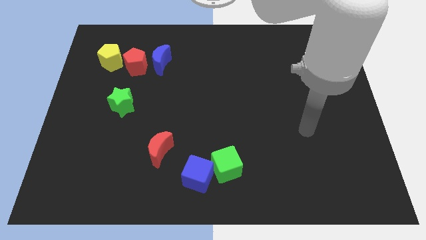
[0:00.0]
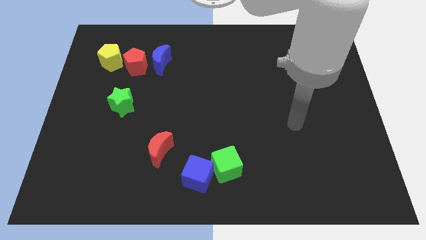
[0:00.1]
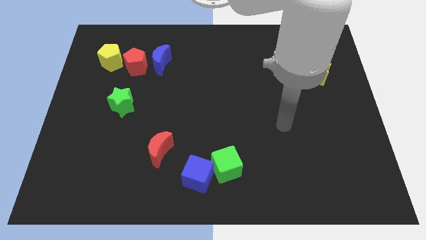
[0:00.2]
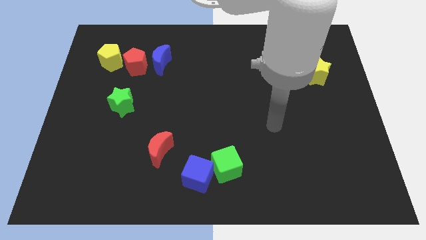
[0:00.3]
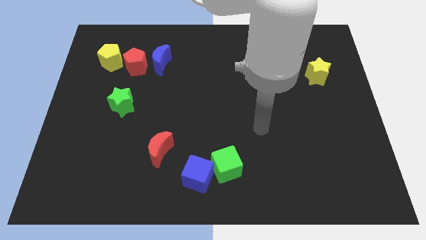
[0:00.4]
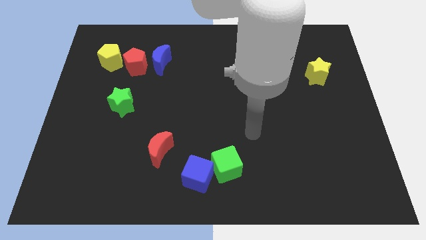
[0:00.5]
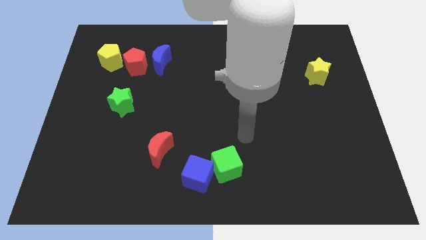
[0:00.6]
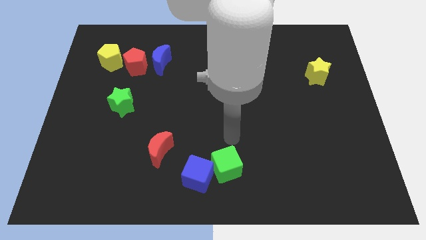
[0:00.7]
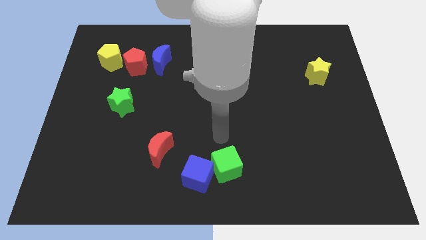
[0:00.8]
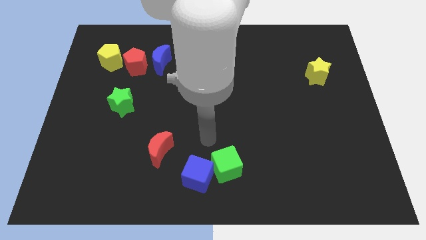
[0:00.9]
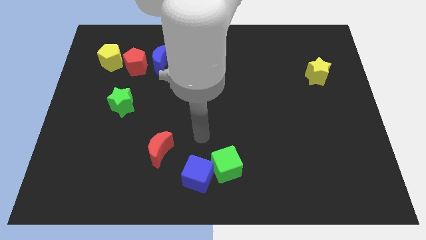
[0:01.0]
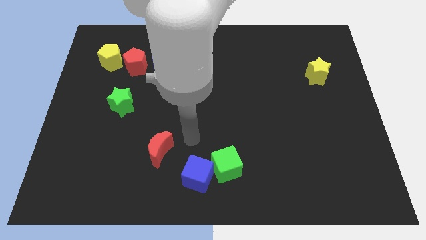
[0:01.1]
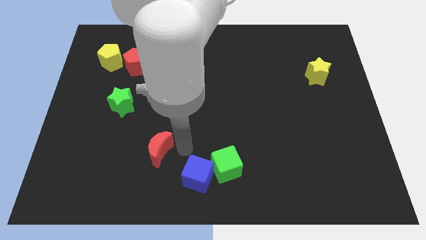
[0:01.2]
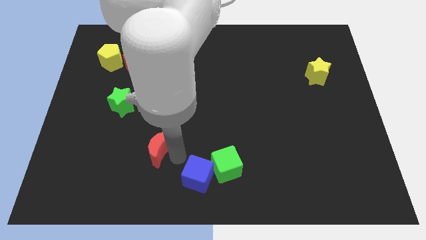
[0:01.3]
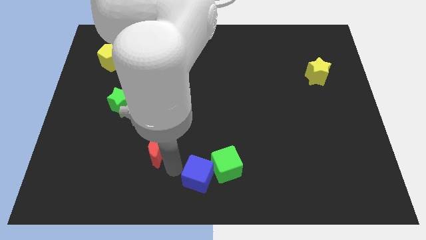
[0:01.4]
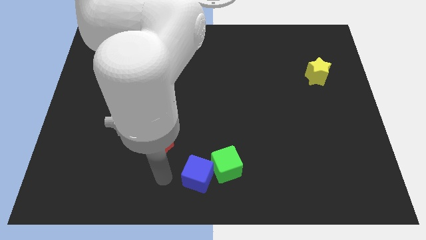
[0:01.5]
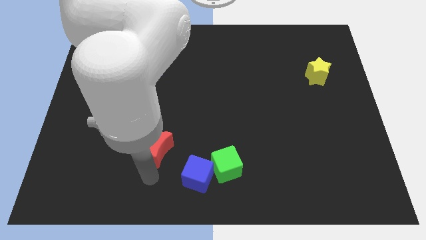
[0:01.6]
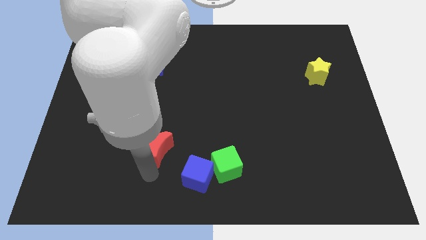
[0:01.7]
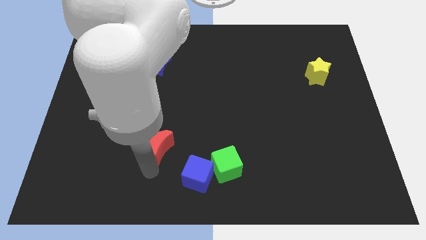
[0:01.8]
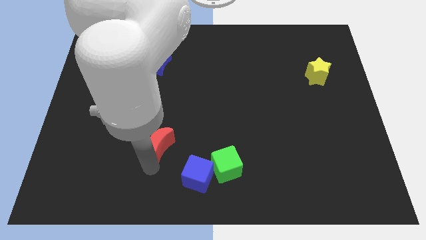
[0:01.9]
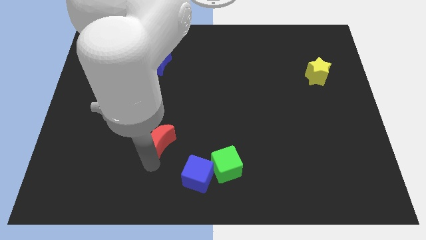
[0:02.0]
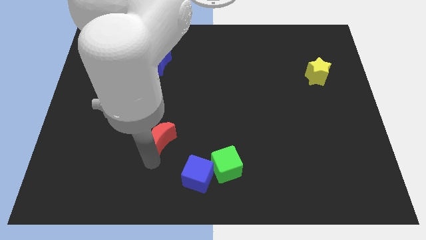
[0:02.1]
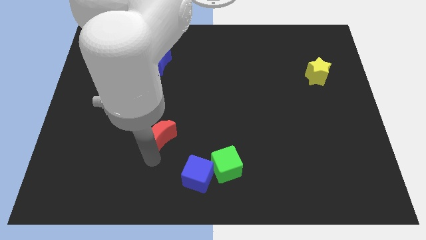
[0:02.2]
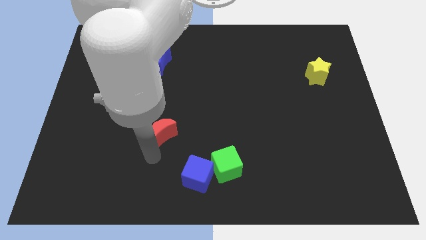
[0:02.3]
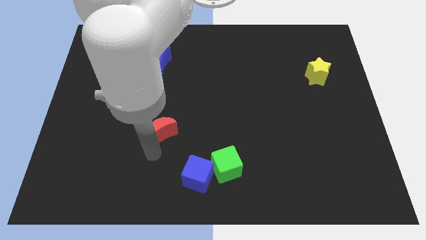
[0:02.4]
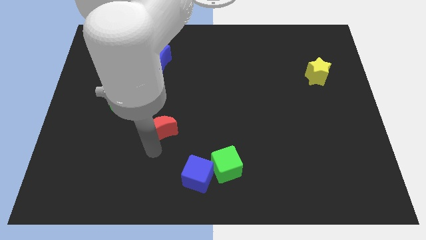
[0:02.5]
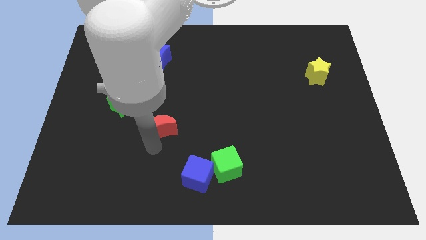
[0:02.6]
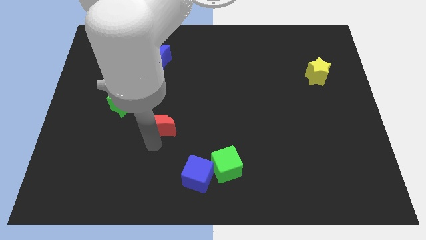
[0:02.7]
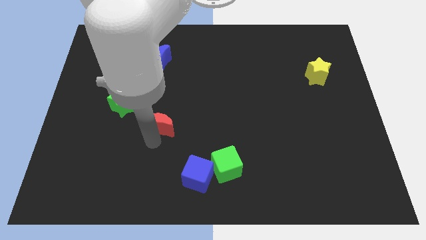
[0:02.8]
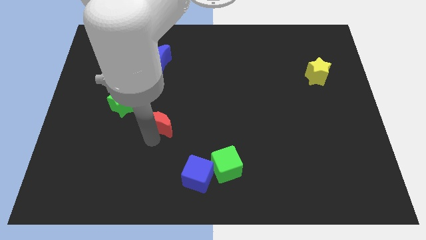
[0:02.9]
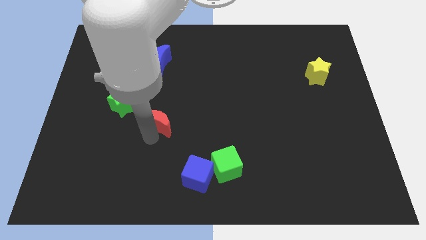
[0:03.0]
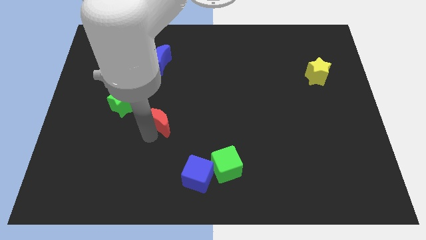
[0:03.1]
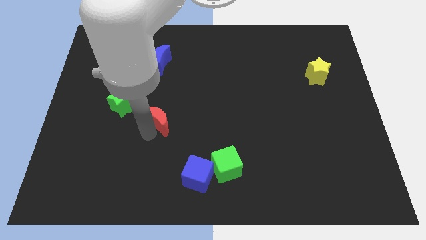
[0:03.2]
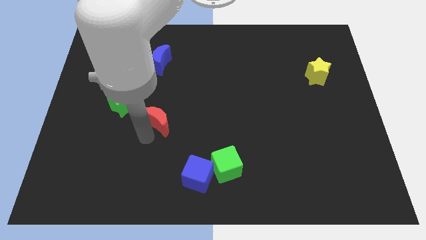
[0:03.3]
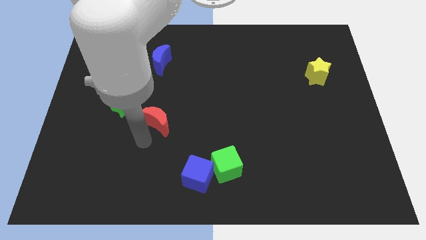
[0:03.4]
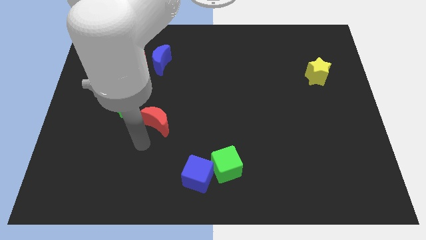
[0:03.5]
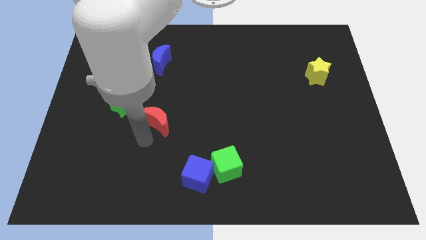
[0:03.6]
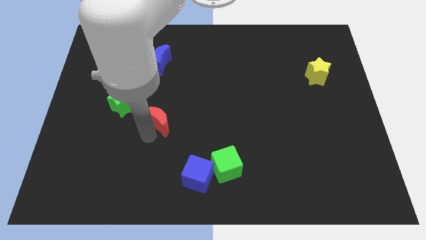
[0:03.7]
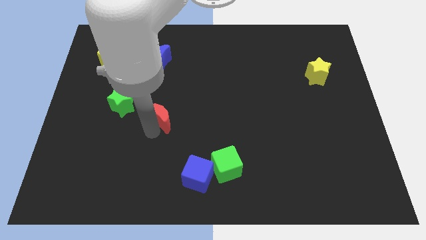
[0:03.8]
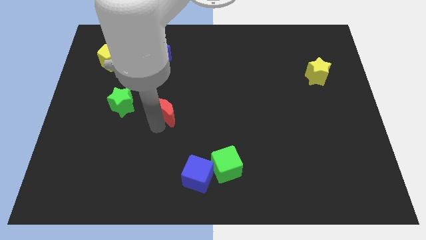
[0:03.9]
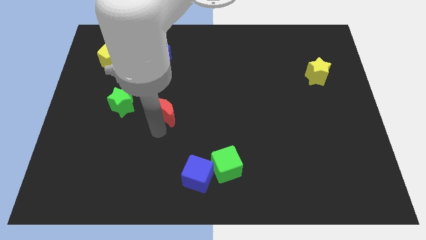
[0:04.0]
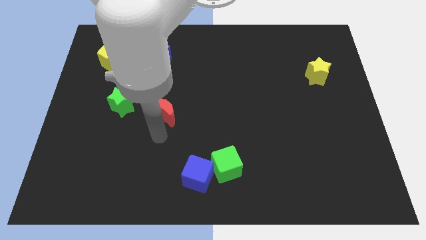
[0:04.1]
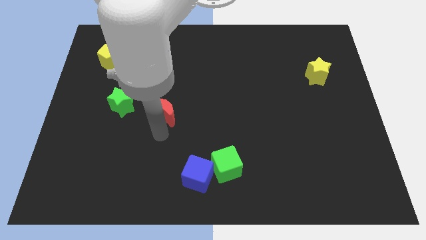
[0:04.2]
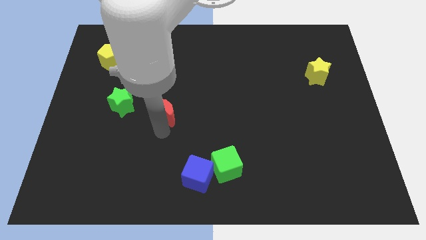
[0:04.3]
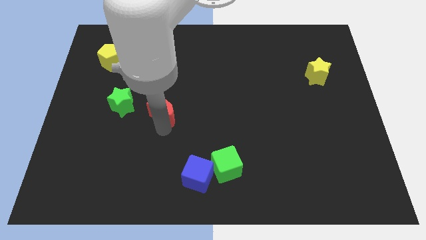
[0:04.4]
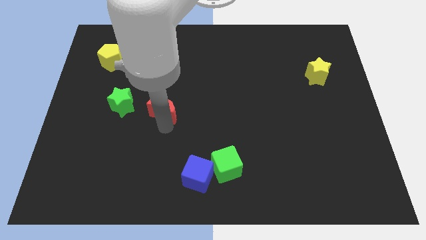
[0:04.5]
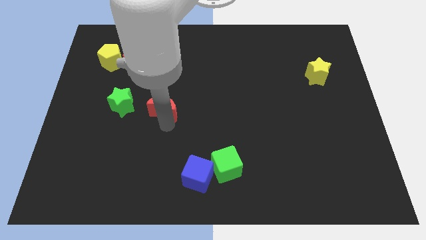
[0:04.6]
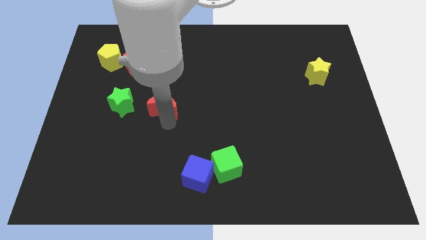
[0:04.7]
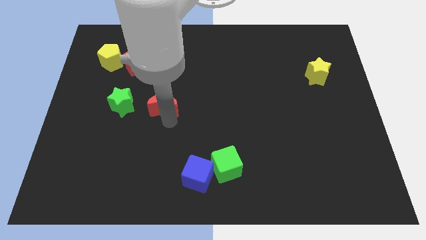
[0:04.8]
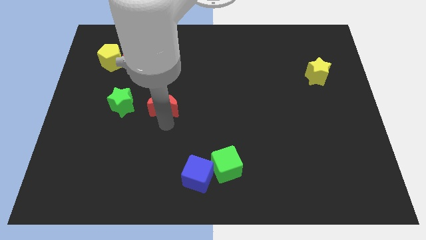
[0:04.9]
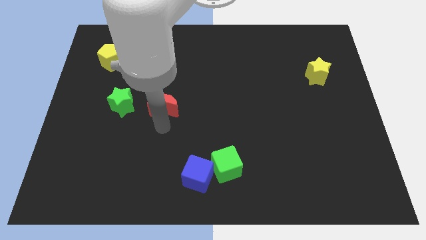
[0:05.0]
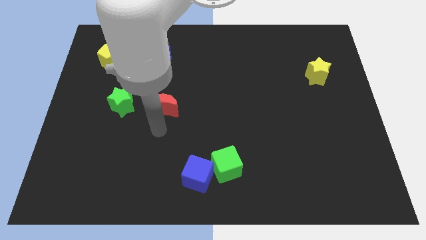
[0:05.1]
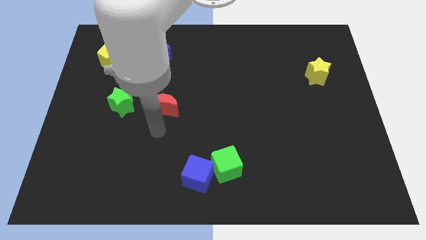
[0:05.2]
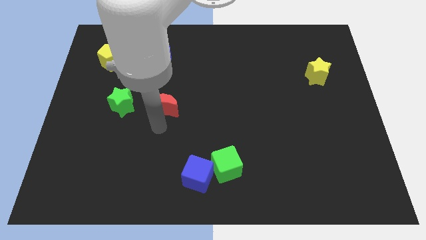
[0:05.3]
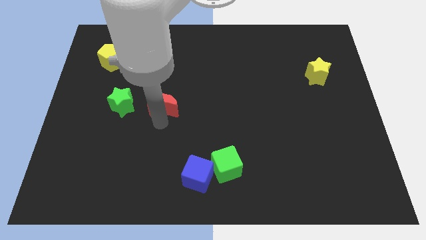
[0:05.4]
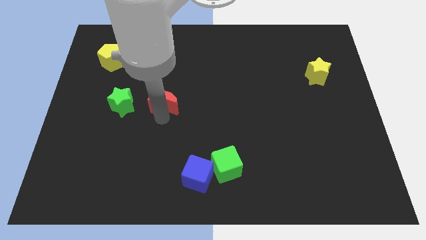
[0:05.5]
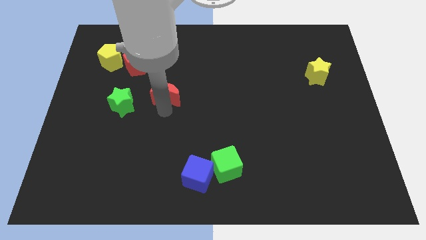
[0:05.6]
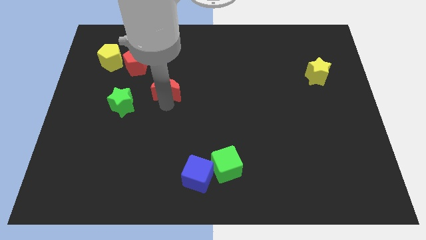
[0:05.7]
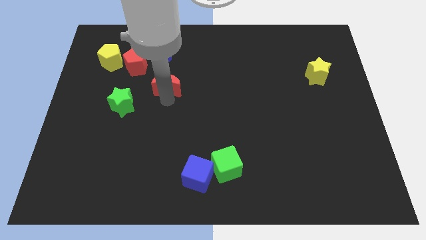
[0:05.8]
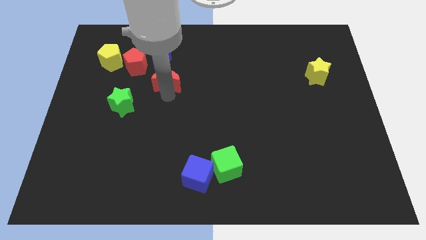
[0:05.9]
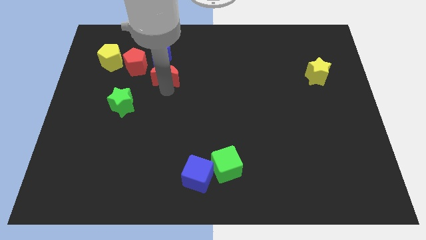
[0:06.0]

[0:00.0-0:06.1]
move the red moon to the right of the red pentagon

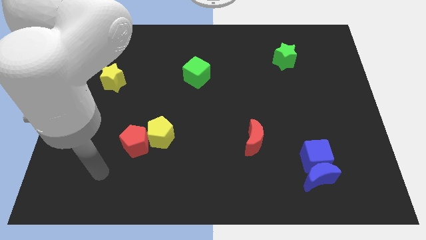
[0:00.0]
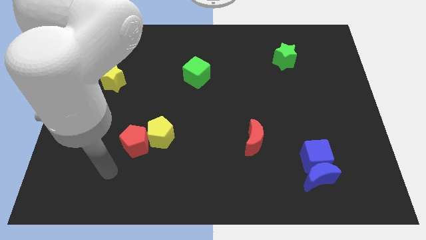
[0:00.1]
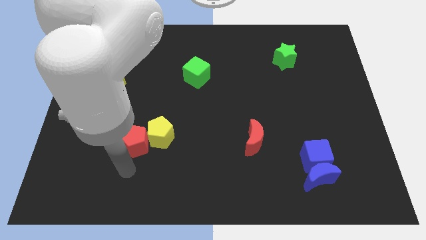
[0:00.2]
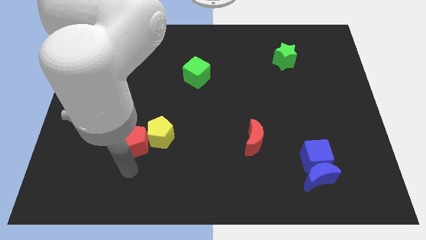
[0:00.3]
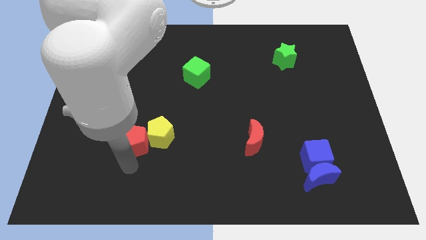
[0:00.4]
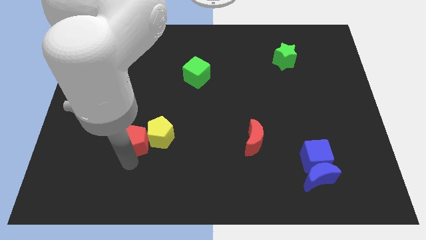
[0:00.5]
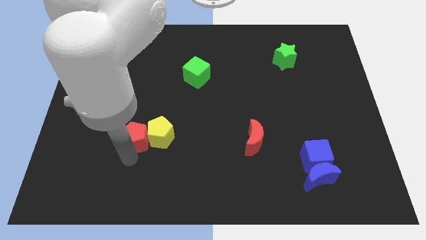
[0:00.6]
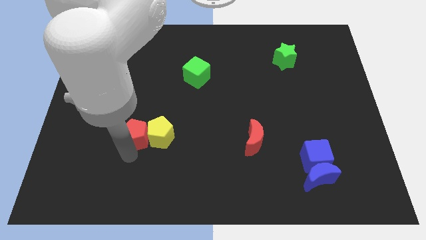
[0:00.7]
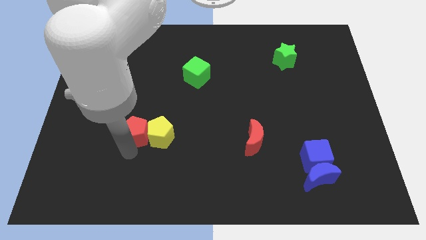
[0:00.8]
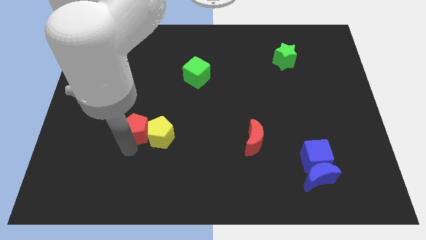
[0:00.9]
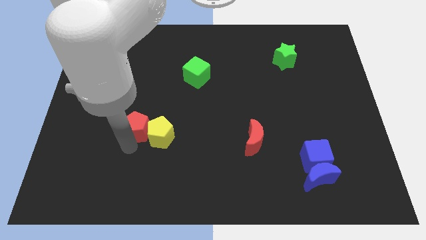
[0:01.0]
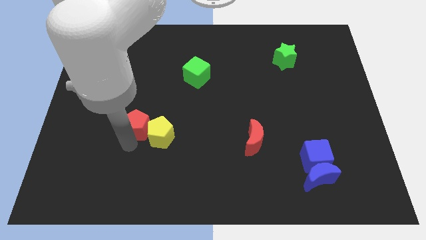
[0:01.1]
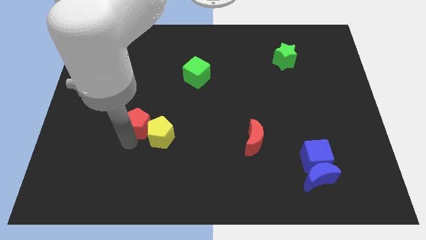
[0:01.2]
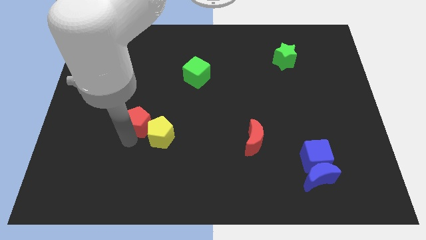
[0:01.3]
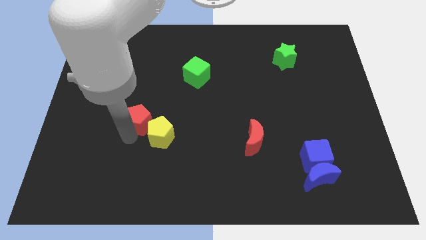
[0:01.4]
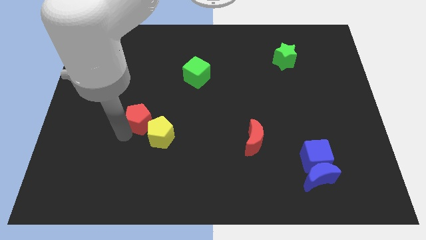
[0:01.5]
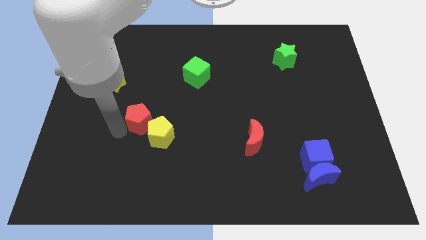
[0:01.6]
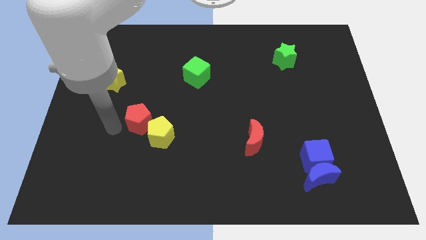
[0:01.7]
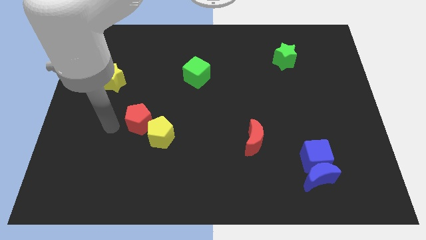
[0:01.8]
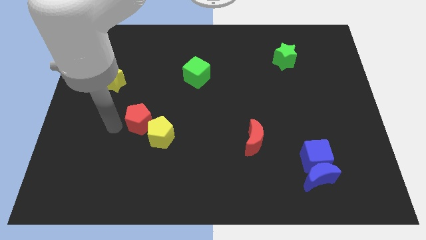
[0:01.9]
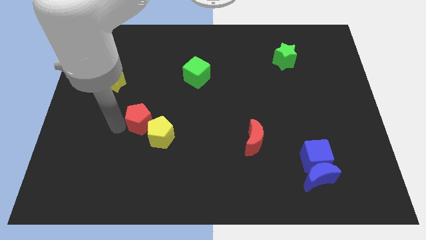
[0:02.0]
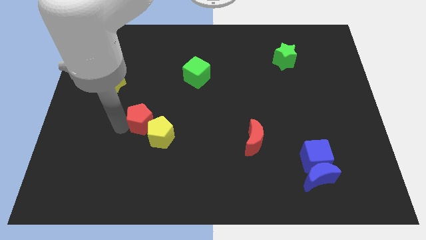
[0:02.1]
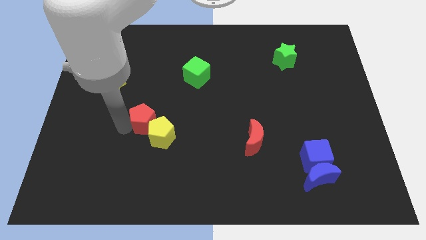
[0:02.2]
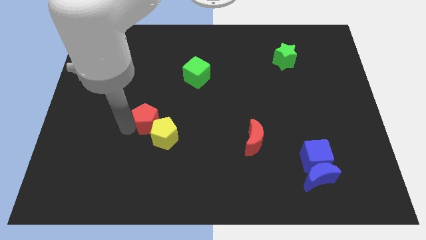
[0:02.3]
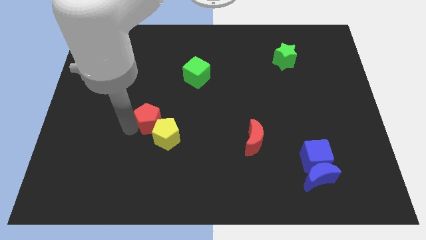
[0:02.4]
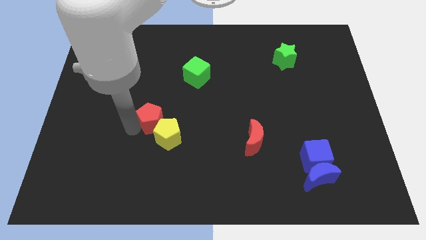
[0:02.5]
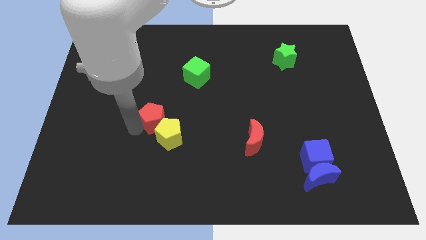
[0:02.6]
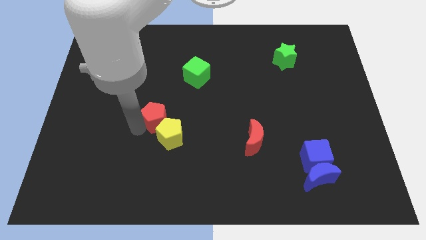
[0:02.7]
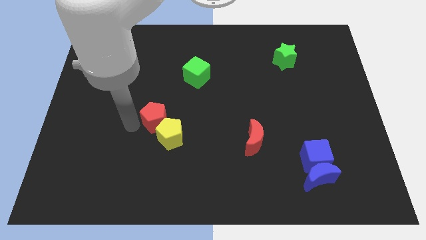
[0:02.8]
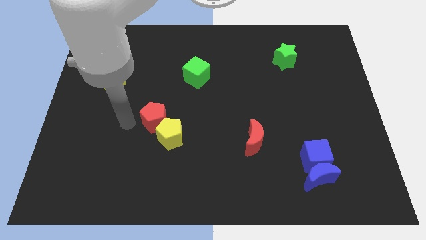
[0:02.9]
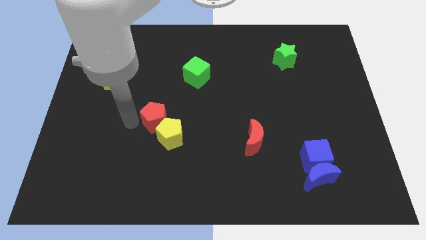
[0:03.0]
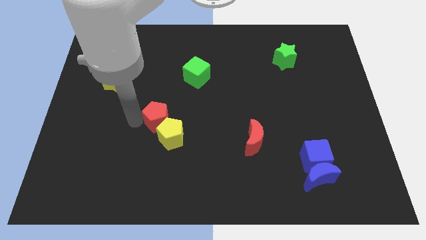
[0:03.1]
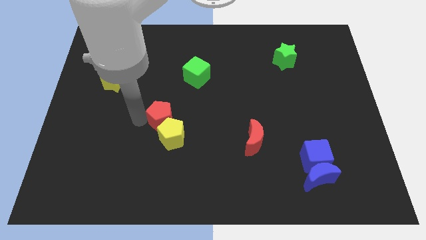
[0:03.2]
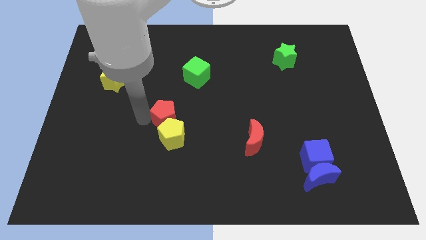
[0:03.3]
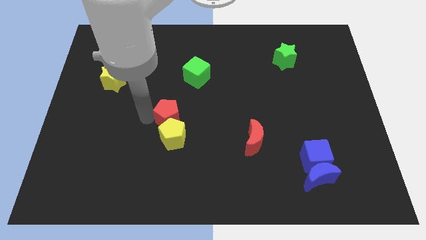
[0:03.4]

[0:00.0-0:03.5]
slide the red pentagon to the top right of the yellow pentagon
